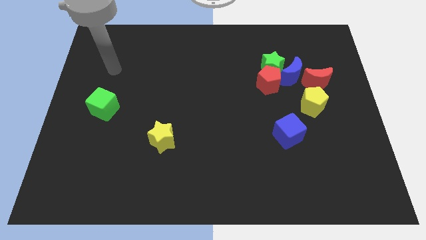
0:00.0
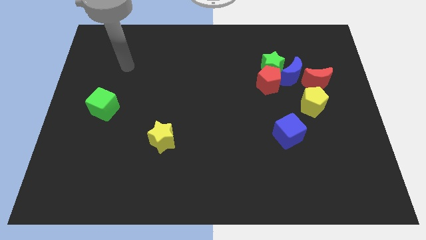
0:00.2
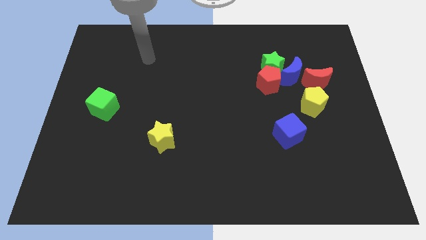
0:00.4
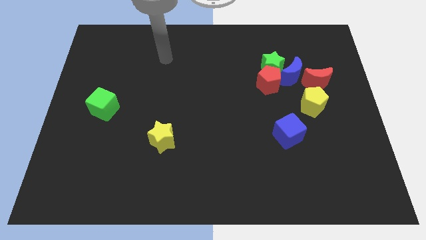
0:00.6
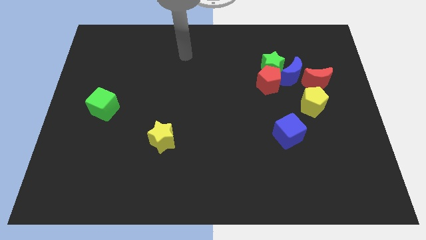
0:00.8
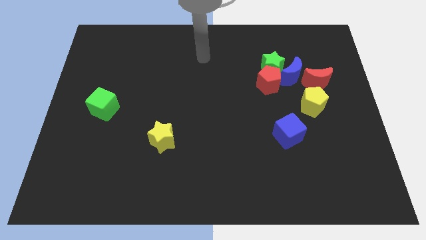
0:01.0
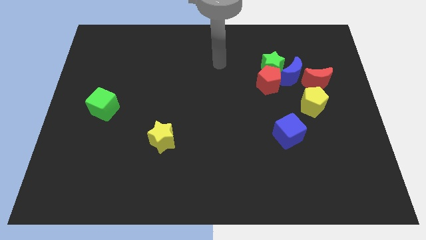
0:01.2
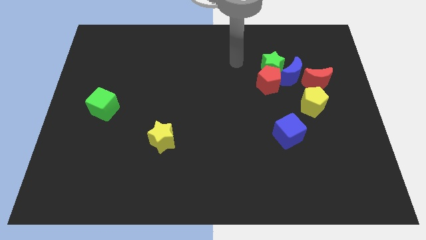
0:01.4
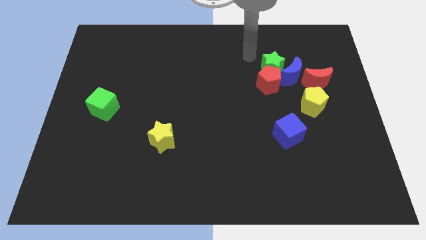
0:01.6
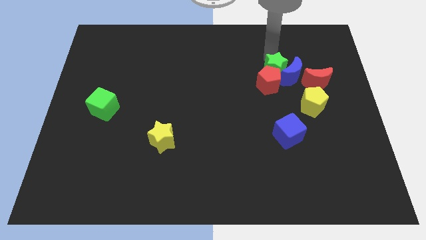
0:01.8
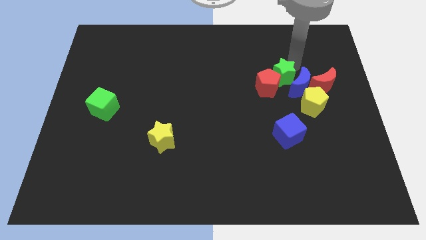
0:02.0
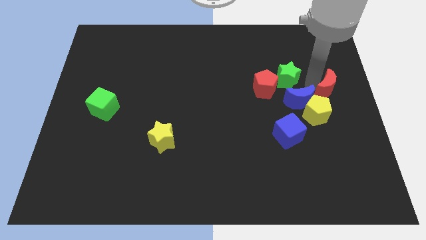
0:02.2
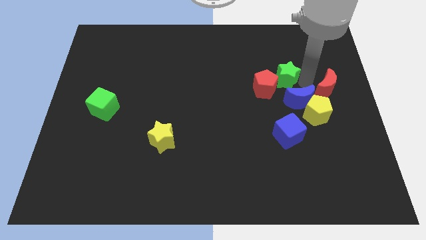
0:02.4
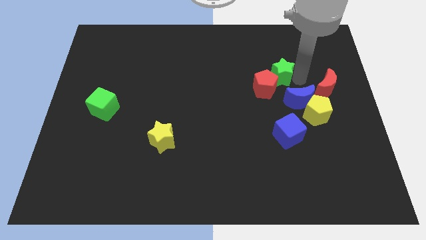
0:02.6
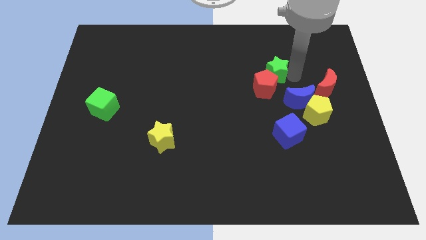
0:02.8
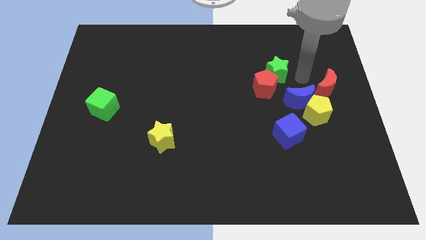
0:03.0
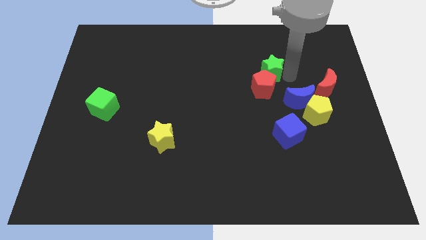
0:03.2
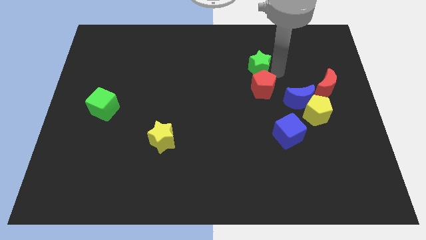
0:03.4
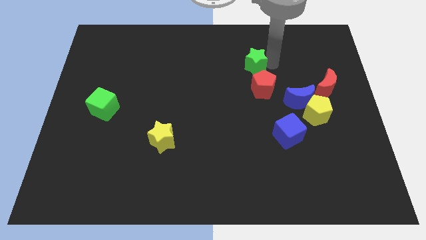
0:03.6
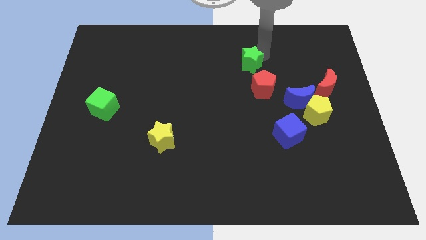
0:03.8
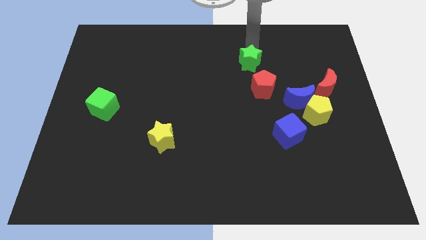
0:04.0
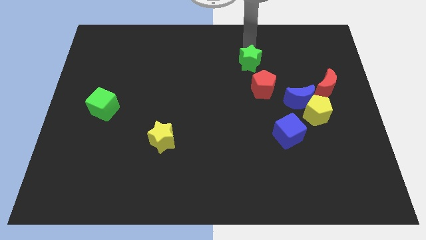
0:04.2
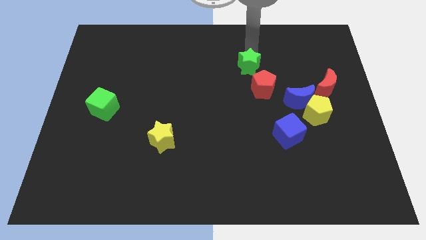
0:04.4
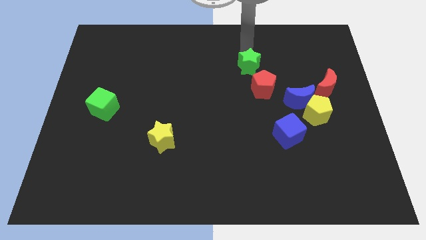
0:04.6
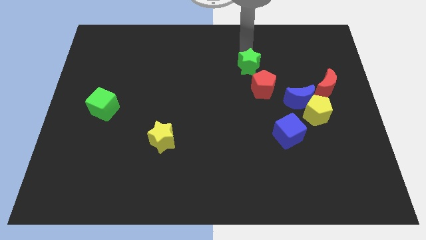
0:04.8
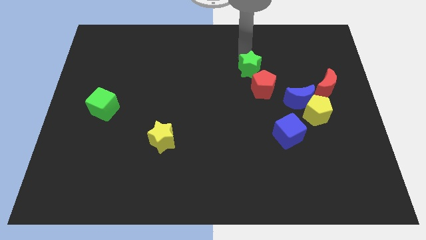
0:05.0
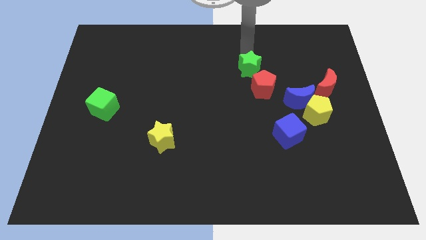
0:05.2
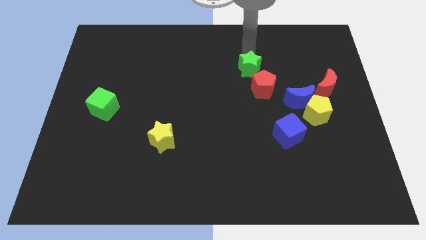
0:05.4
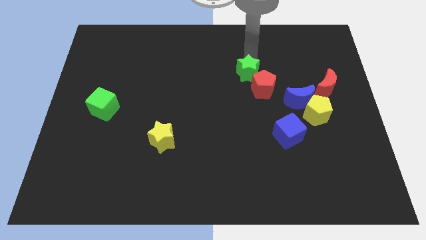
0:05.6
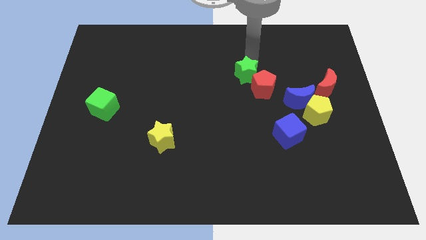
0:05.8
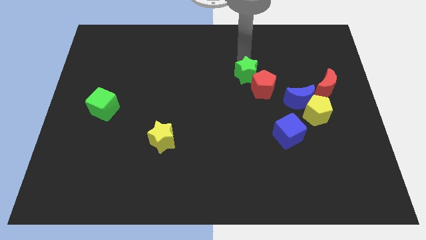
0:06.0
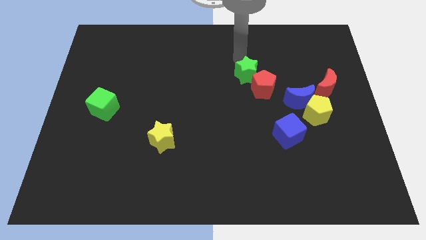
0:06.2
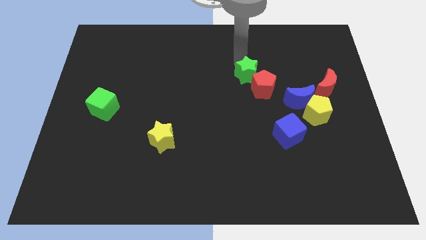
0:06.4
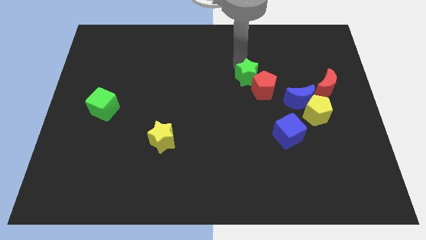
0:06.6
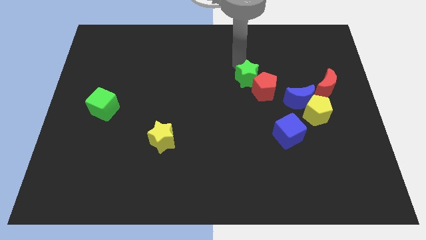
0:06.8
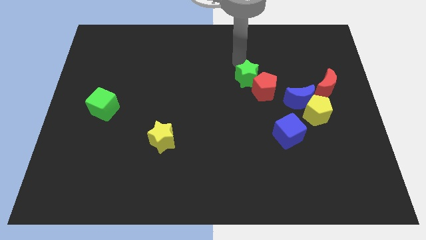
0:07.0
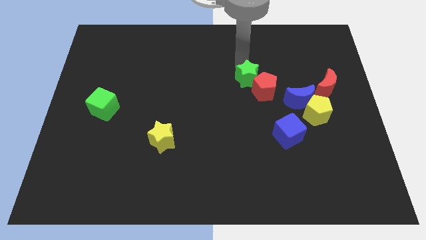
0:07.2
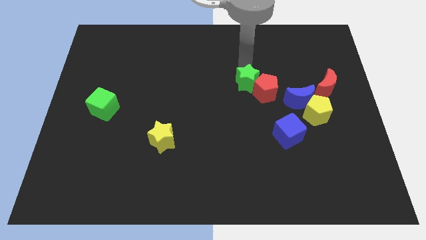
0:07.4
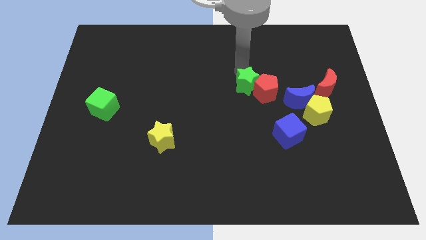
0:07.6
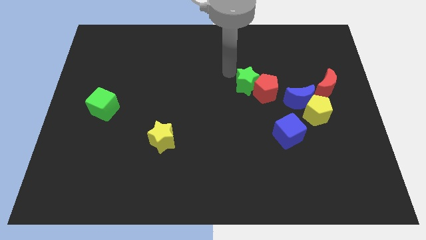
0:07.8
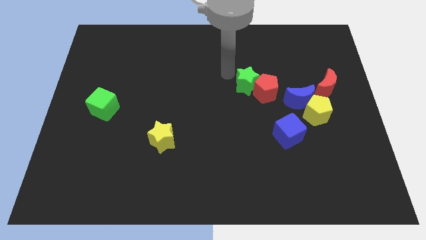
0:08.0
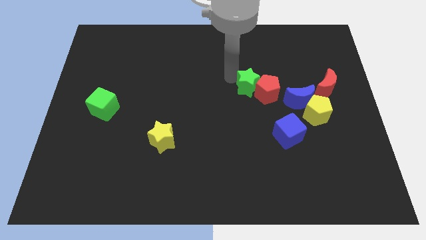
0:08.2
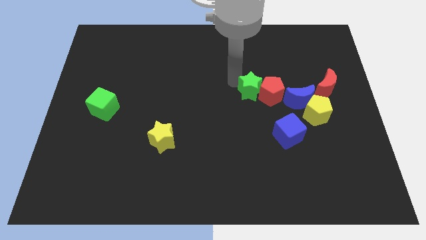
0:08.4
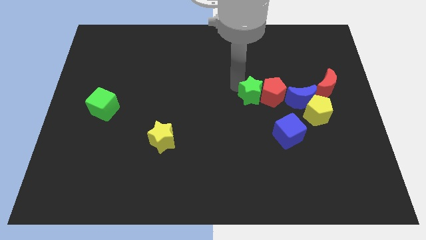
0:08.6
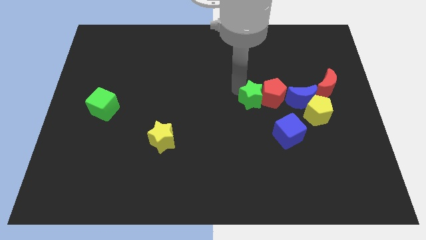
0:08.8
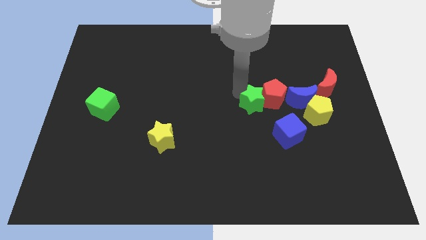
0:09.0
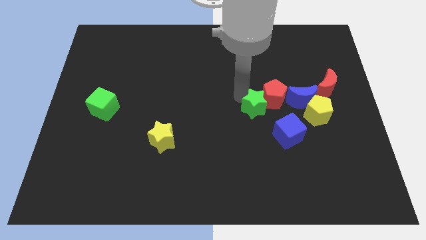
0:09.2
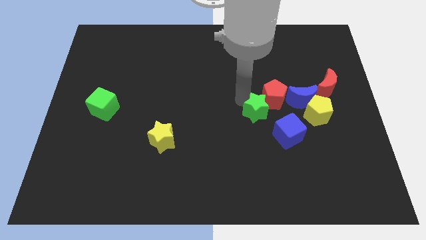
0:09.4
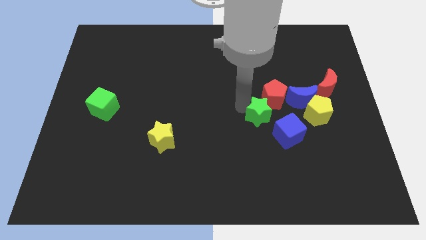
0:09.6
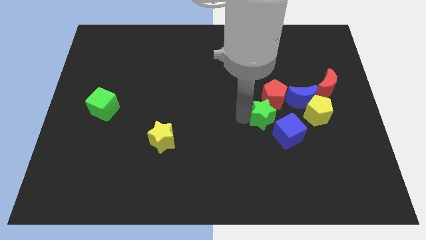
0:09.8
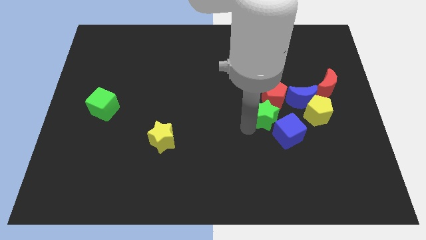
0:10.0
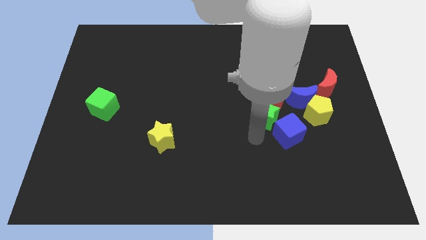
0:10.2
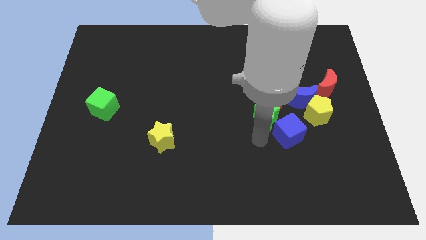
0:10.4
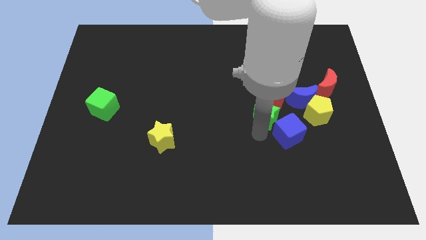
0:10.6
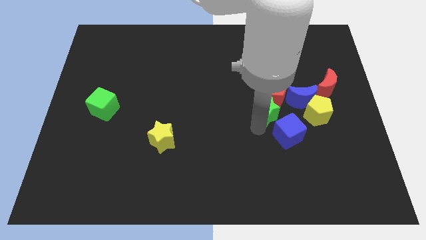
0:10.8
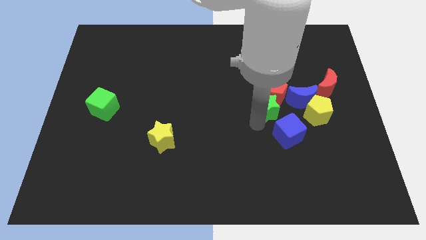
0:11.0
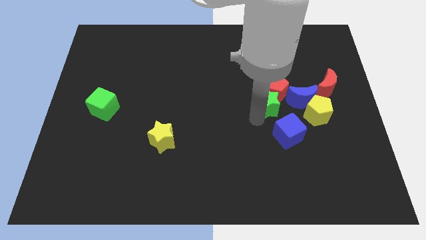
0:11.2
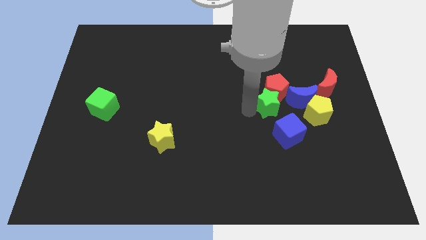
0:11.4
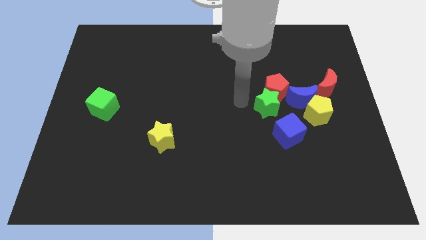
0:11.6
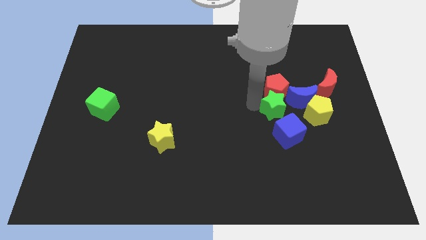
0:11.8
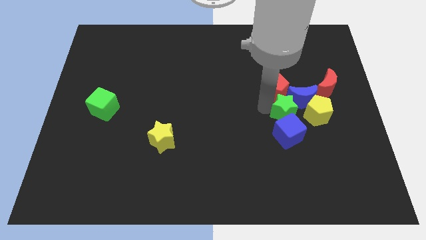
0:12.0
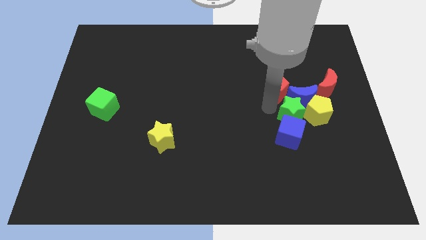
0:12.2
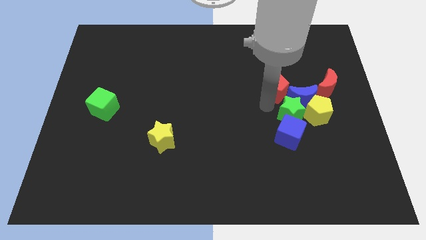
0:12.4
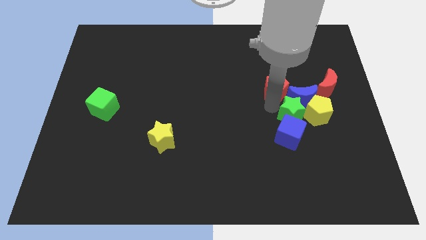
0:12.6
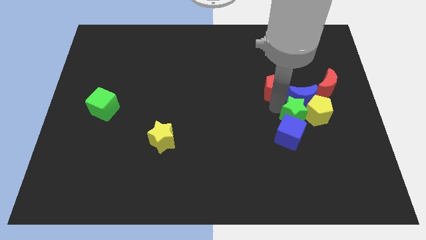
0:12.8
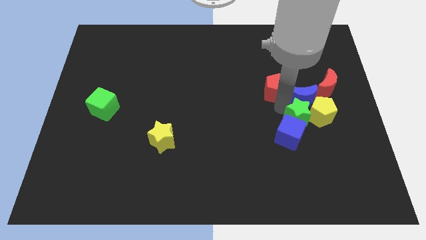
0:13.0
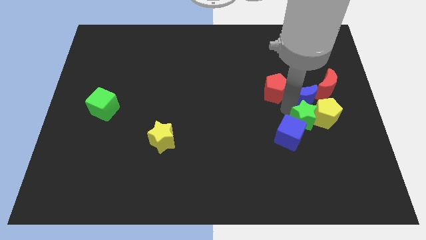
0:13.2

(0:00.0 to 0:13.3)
move the green star to the right of the blue cube

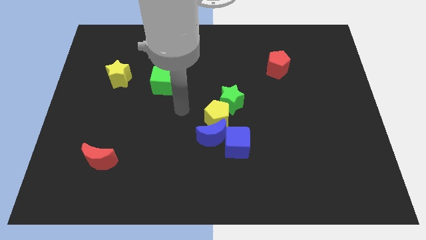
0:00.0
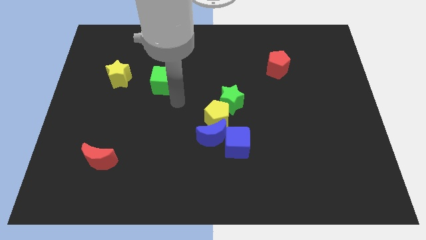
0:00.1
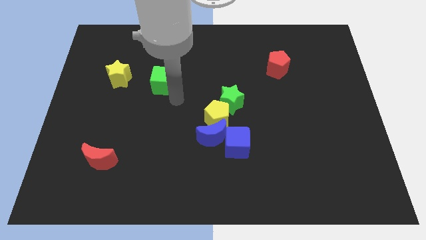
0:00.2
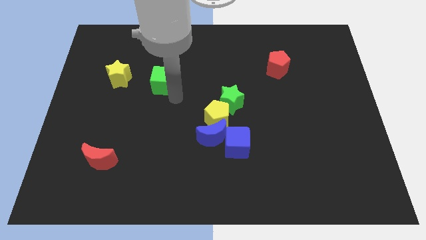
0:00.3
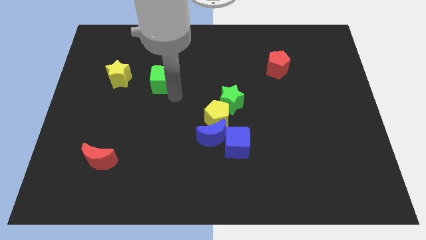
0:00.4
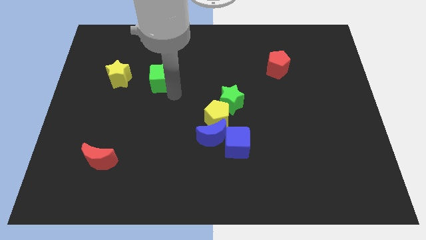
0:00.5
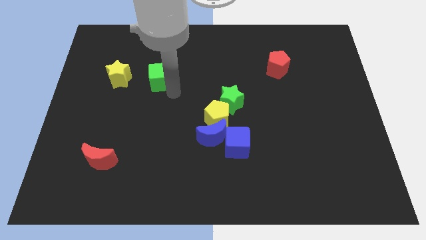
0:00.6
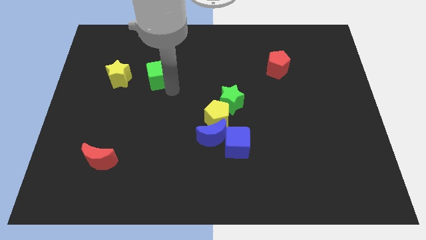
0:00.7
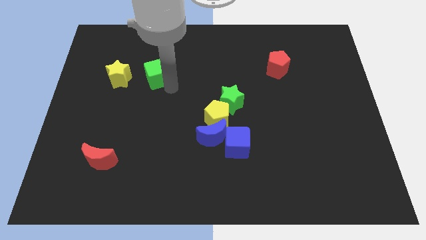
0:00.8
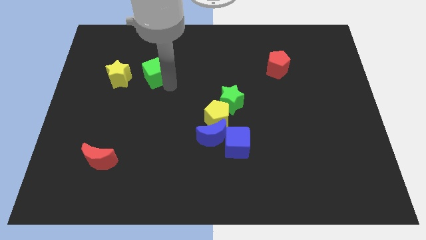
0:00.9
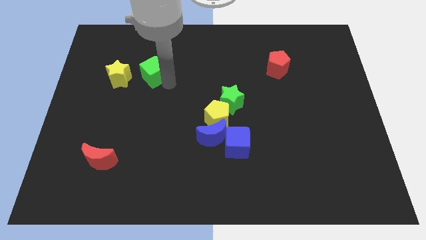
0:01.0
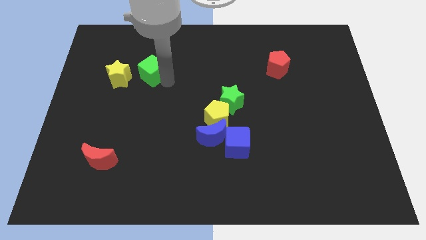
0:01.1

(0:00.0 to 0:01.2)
move the green cube to the top right of the yellow star
